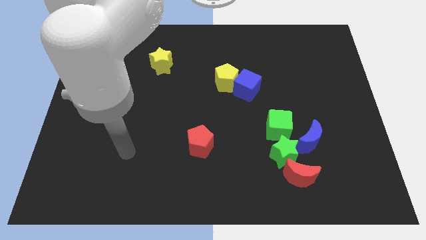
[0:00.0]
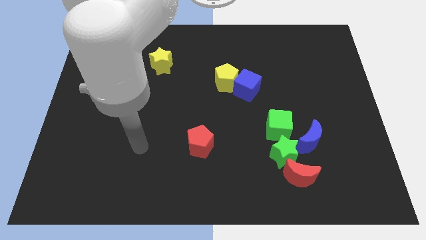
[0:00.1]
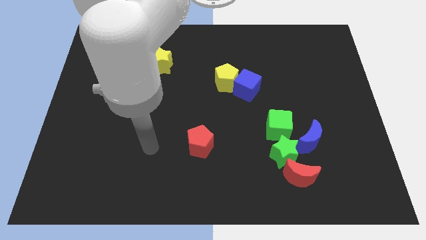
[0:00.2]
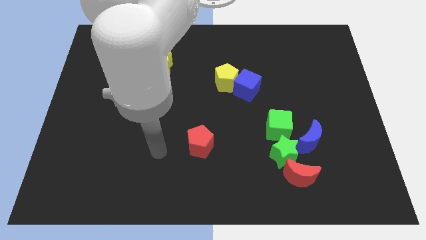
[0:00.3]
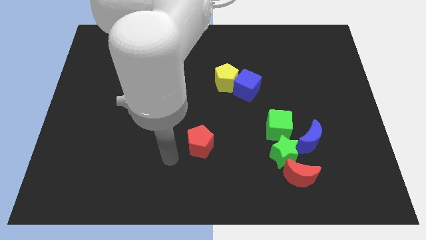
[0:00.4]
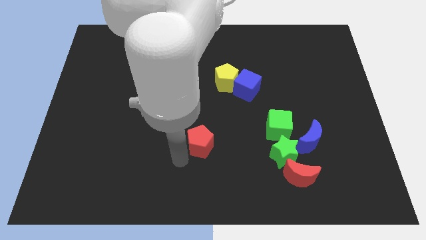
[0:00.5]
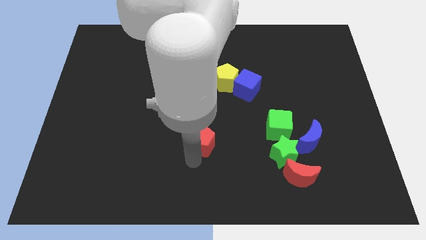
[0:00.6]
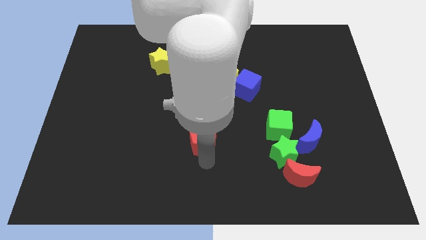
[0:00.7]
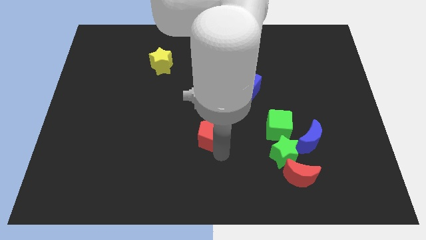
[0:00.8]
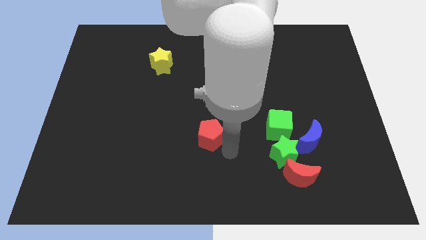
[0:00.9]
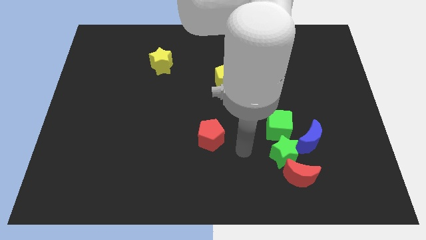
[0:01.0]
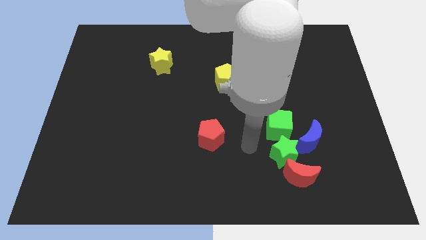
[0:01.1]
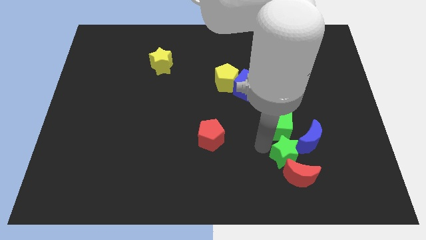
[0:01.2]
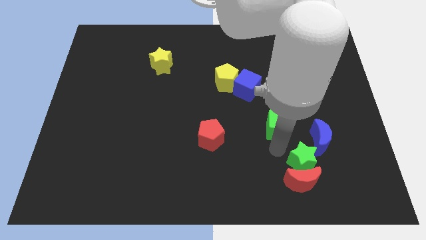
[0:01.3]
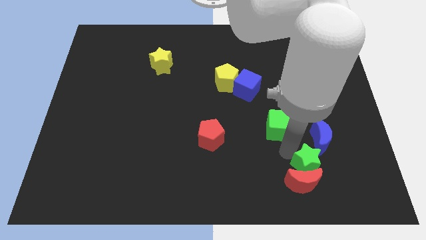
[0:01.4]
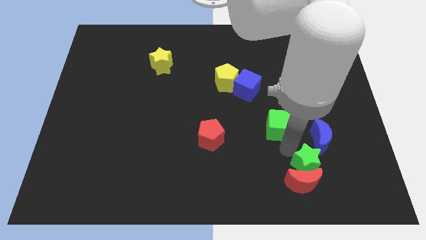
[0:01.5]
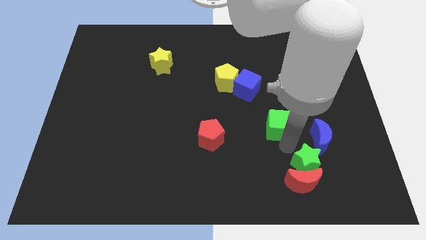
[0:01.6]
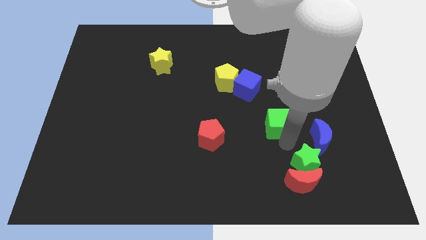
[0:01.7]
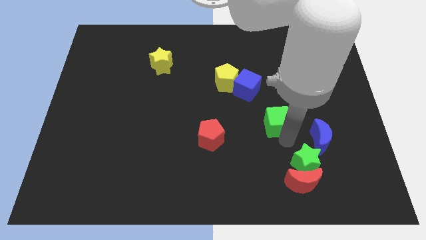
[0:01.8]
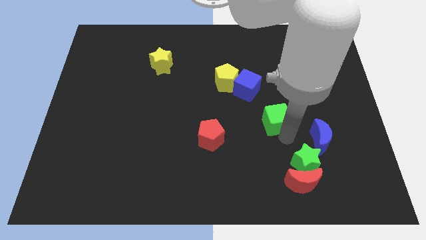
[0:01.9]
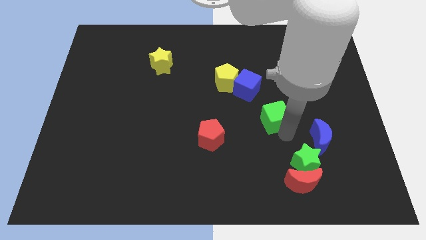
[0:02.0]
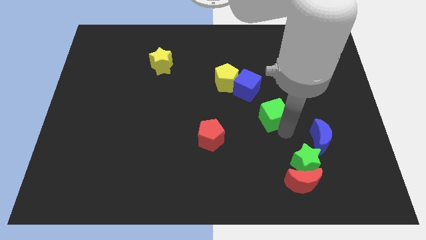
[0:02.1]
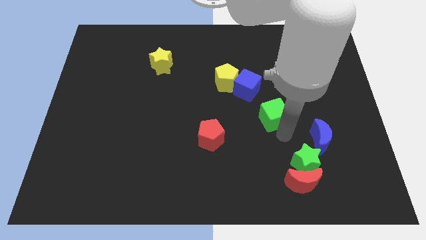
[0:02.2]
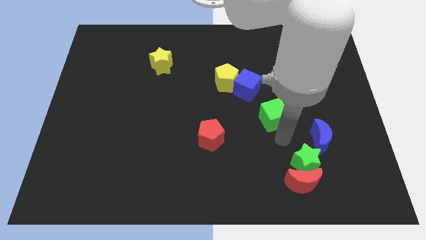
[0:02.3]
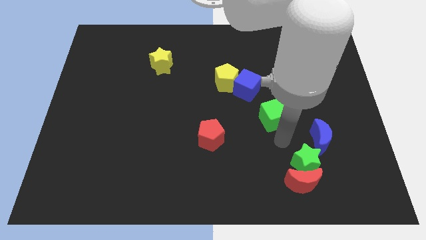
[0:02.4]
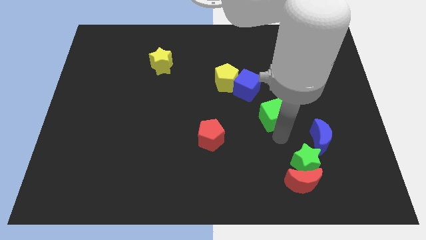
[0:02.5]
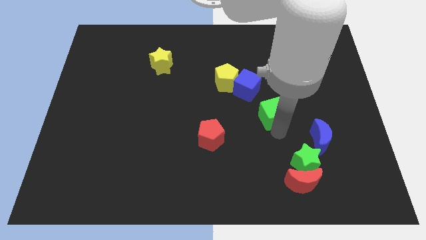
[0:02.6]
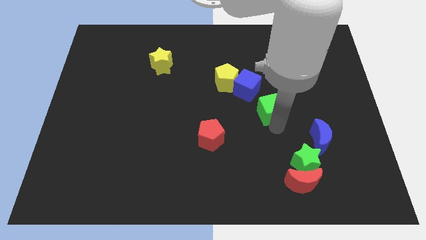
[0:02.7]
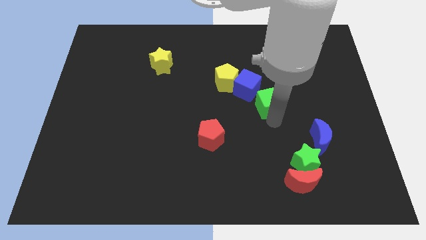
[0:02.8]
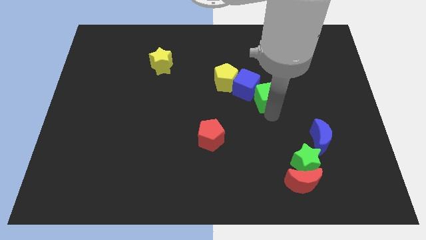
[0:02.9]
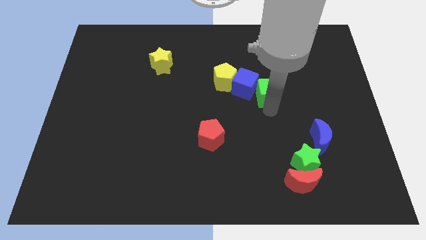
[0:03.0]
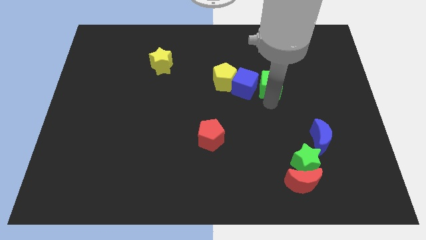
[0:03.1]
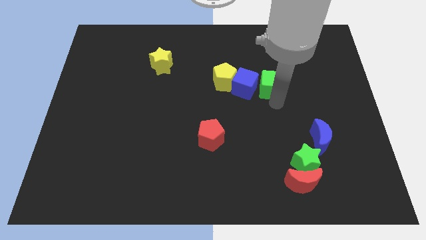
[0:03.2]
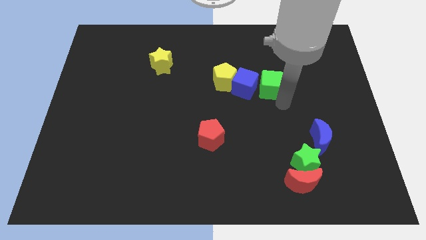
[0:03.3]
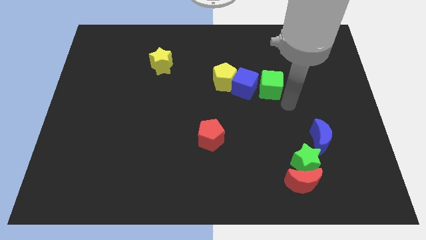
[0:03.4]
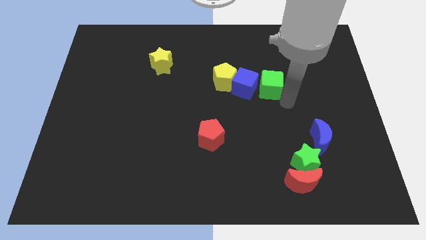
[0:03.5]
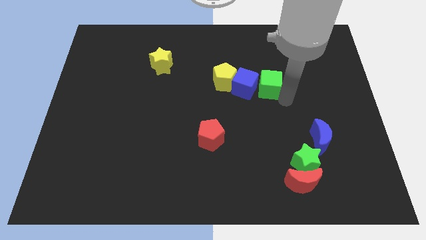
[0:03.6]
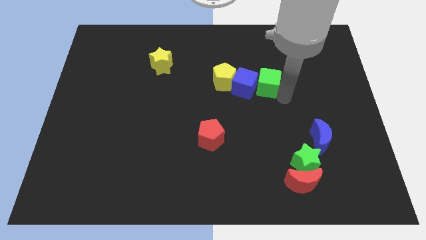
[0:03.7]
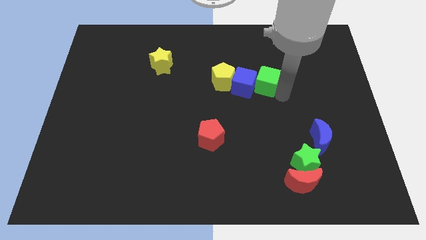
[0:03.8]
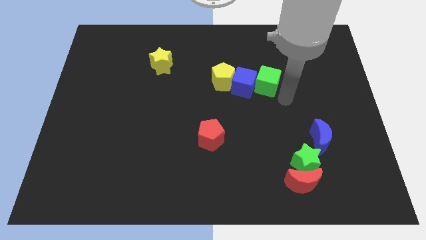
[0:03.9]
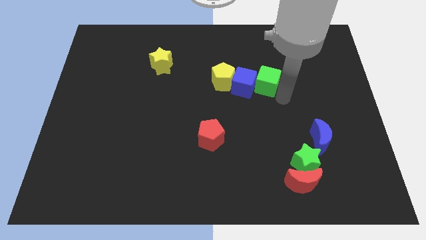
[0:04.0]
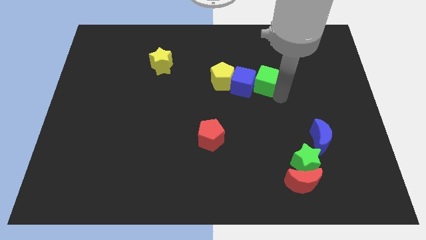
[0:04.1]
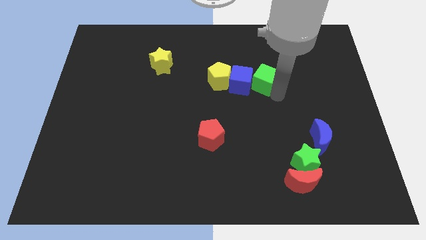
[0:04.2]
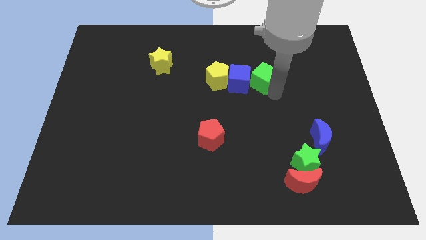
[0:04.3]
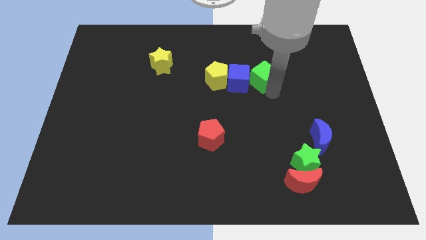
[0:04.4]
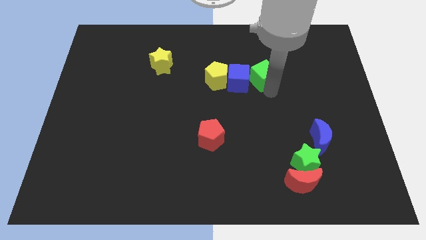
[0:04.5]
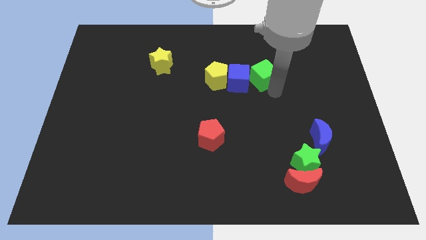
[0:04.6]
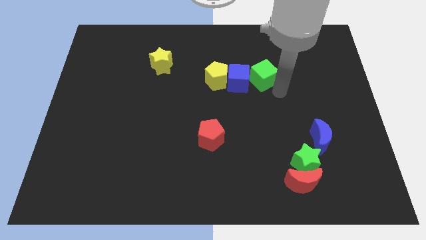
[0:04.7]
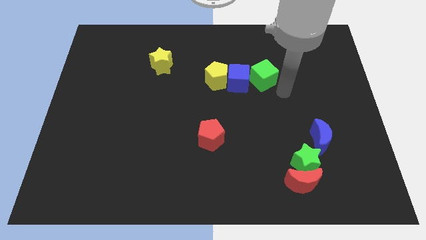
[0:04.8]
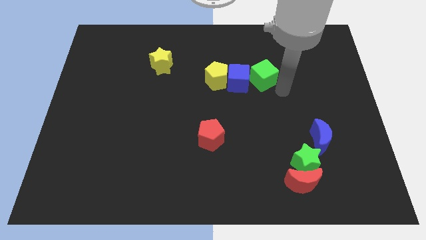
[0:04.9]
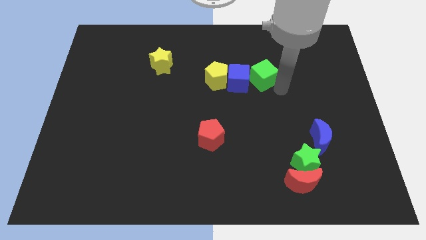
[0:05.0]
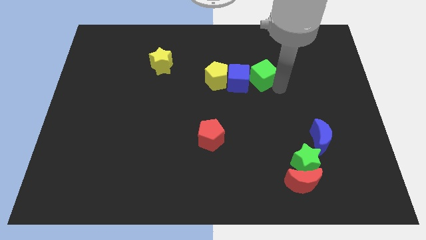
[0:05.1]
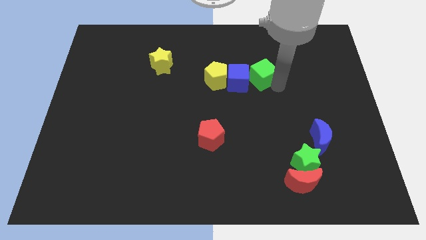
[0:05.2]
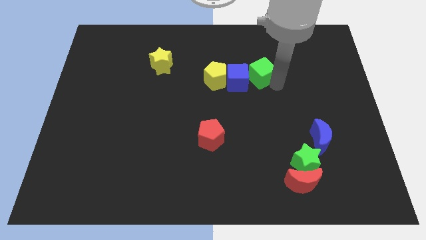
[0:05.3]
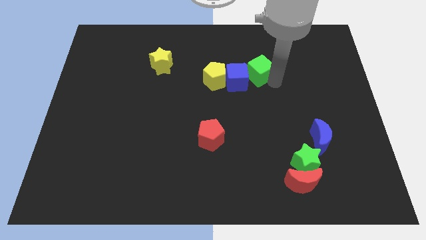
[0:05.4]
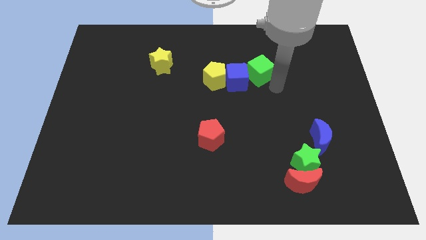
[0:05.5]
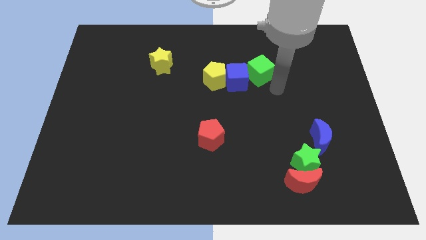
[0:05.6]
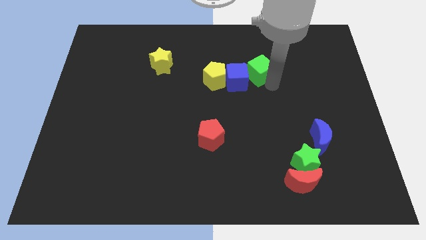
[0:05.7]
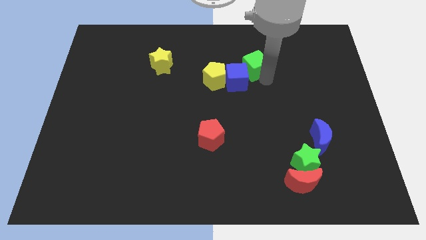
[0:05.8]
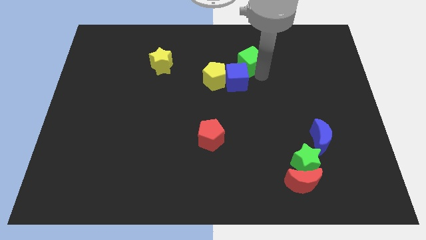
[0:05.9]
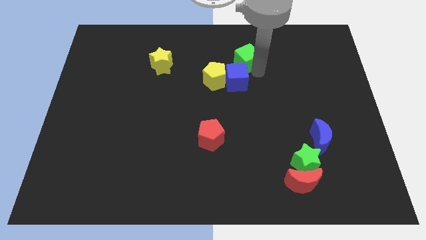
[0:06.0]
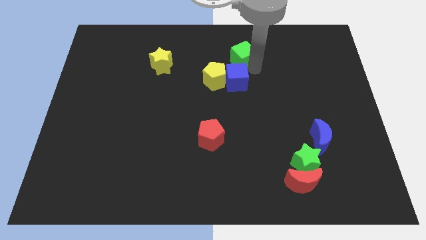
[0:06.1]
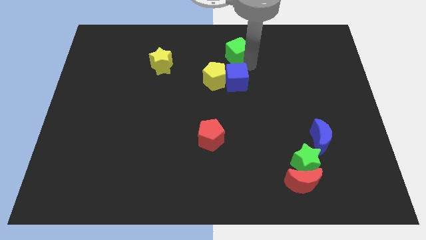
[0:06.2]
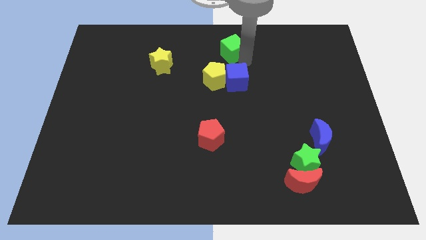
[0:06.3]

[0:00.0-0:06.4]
slide the green cube to the top
